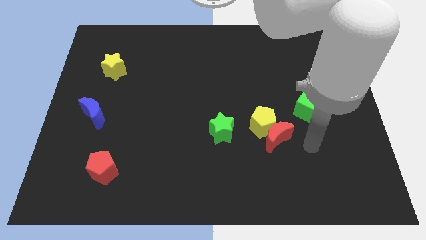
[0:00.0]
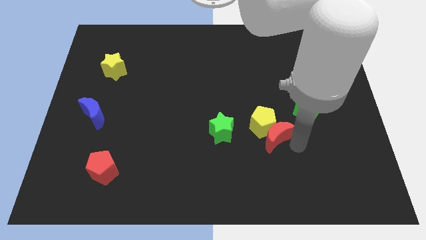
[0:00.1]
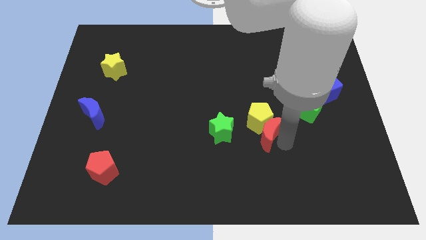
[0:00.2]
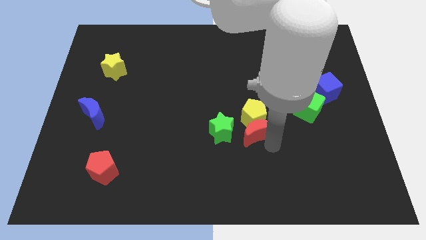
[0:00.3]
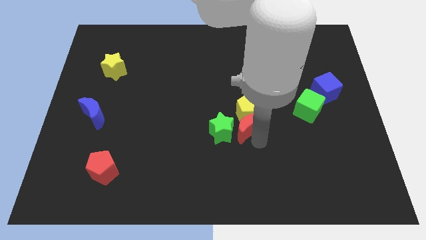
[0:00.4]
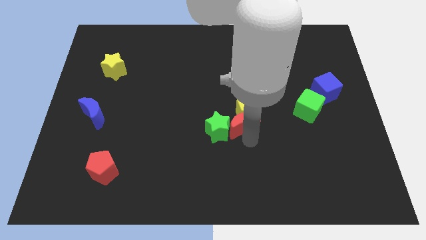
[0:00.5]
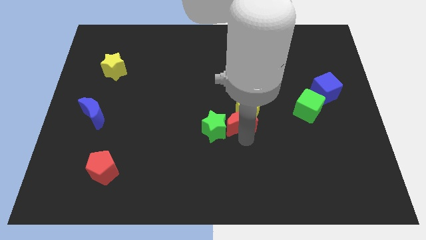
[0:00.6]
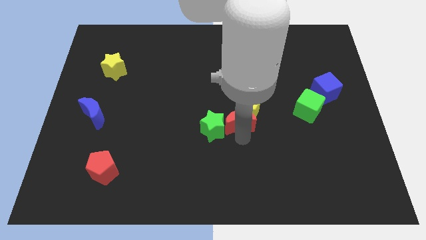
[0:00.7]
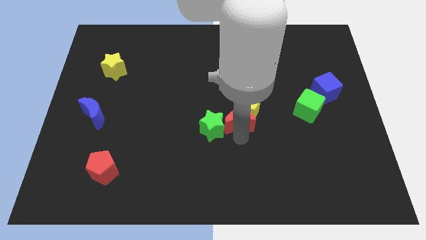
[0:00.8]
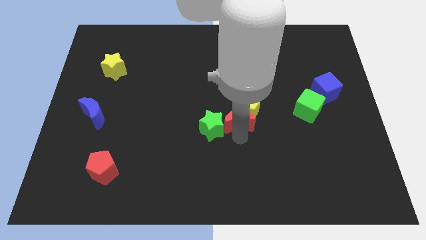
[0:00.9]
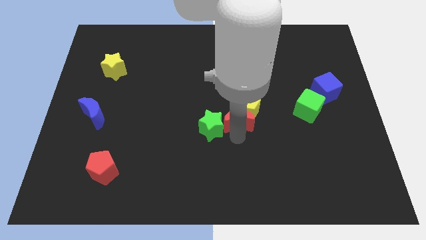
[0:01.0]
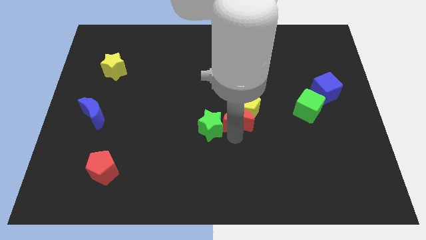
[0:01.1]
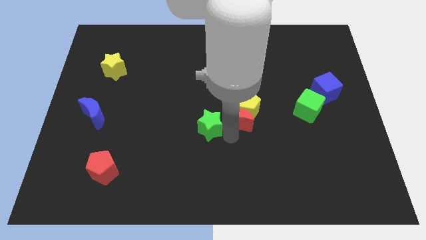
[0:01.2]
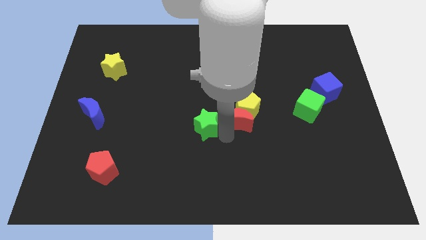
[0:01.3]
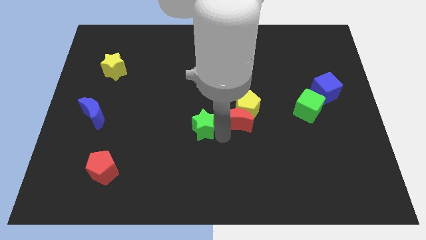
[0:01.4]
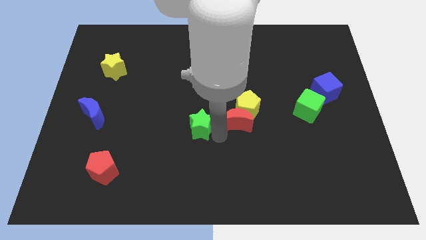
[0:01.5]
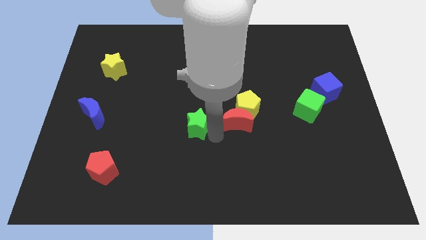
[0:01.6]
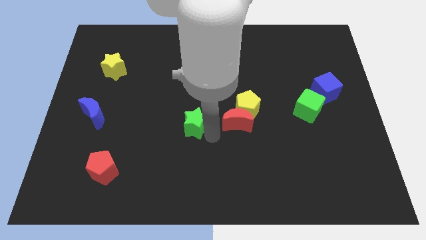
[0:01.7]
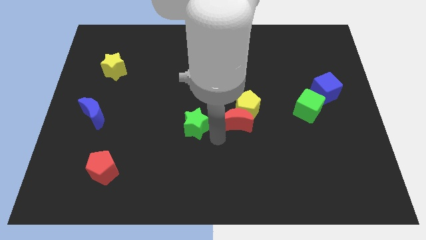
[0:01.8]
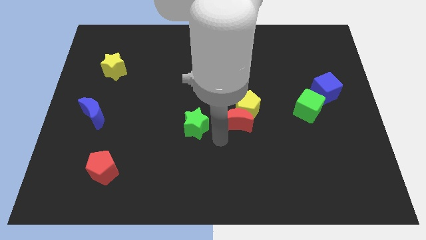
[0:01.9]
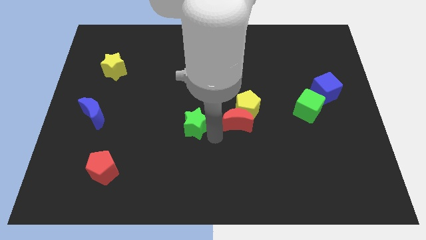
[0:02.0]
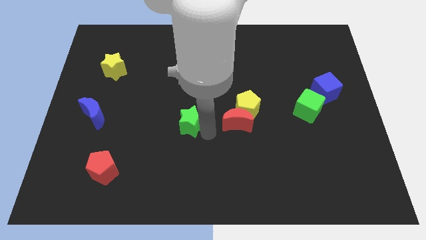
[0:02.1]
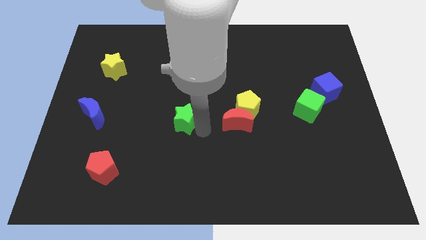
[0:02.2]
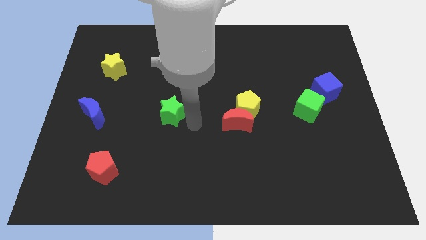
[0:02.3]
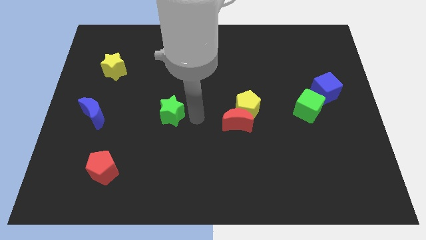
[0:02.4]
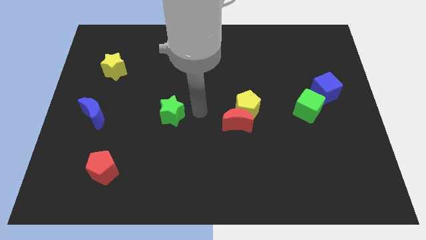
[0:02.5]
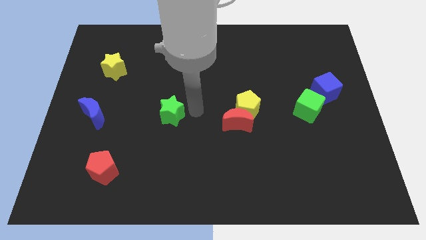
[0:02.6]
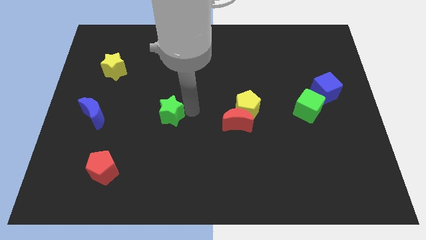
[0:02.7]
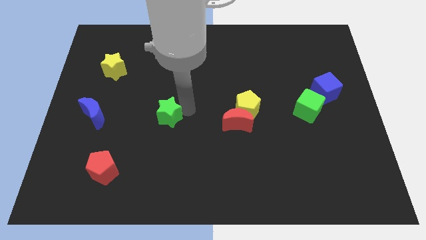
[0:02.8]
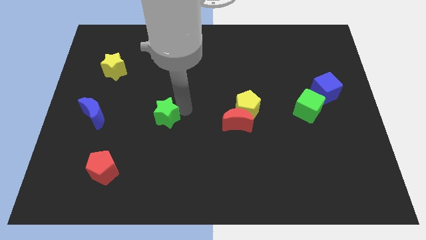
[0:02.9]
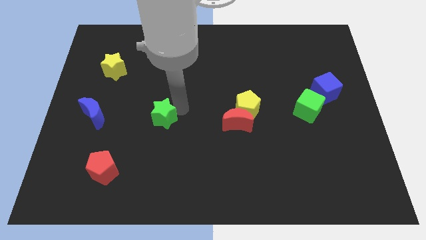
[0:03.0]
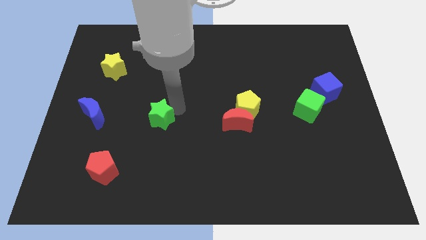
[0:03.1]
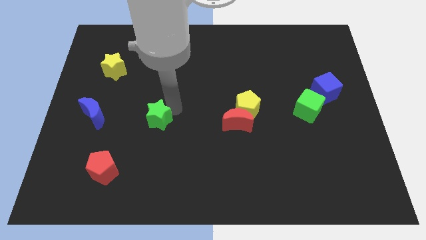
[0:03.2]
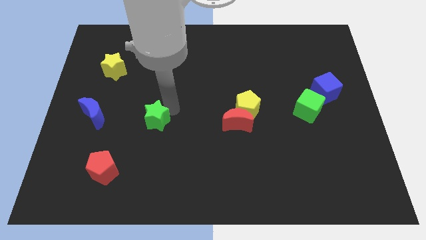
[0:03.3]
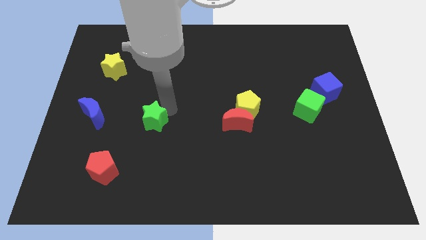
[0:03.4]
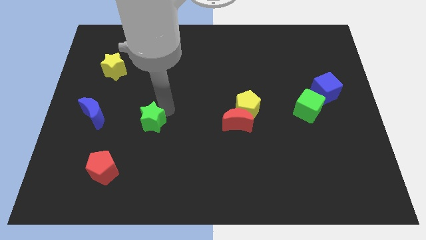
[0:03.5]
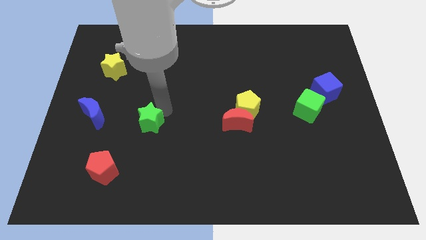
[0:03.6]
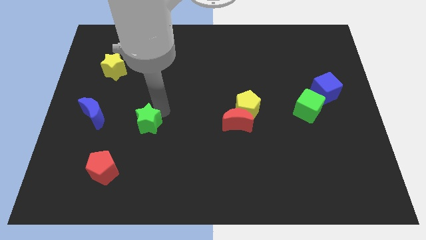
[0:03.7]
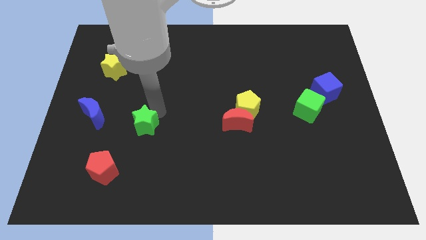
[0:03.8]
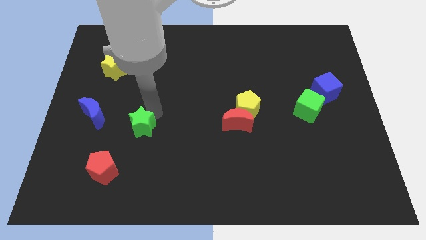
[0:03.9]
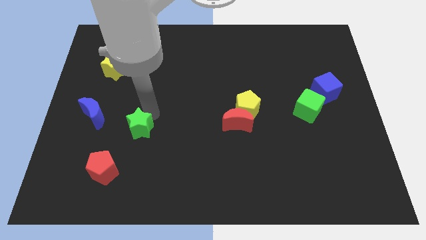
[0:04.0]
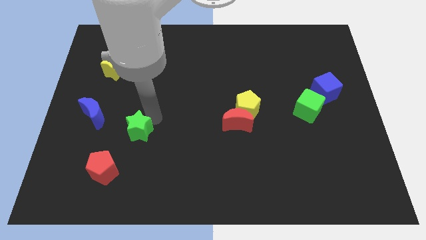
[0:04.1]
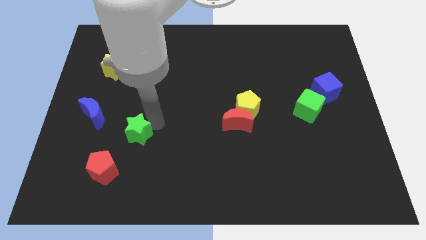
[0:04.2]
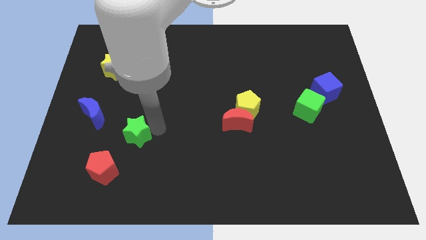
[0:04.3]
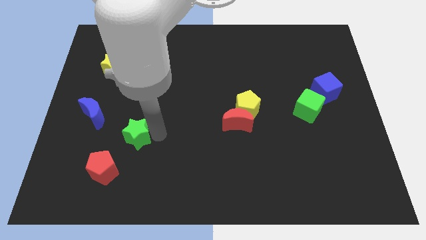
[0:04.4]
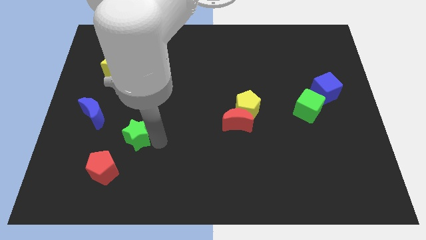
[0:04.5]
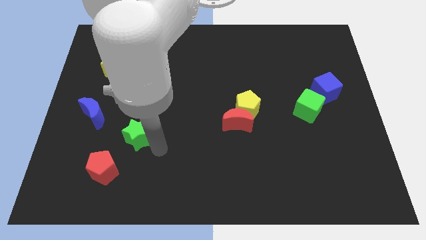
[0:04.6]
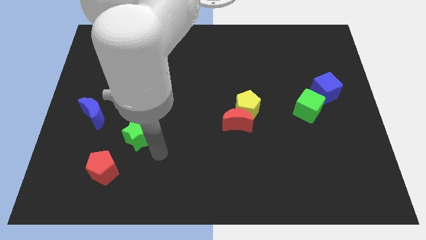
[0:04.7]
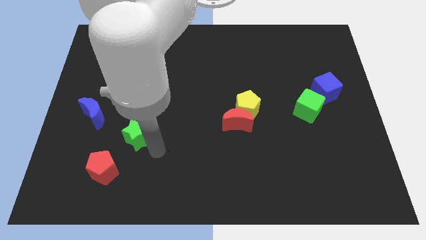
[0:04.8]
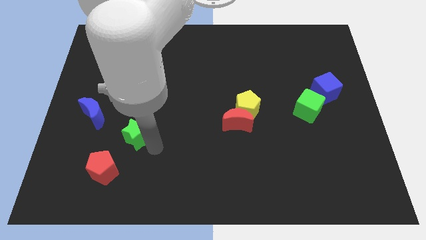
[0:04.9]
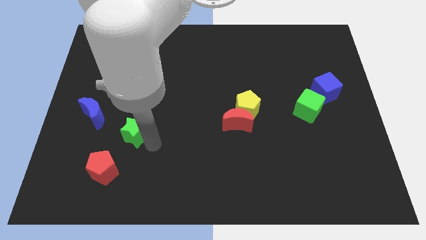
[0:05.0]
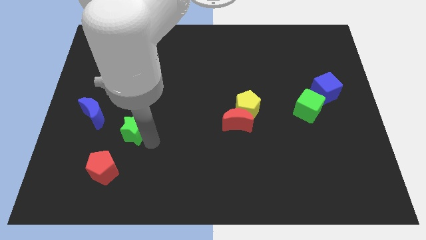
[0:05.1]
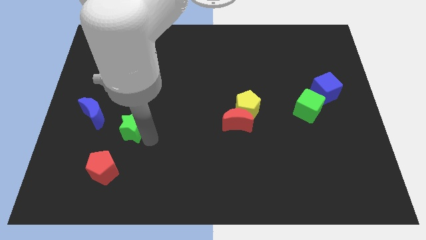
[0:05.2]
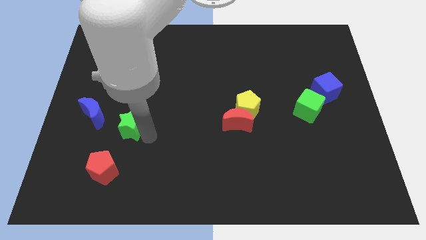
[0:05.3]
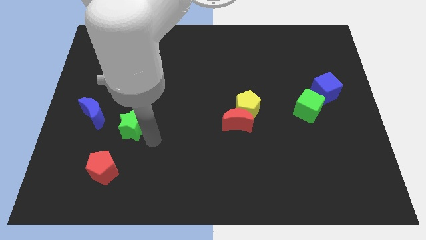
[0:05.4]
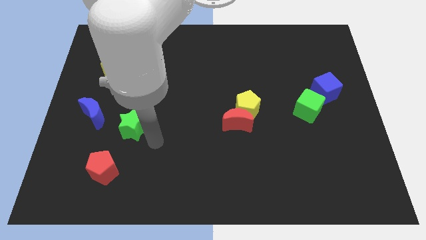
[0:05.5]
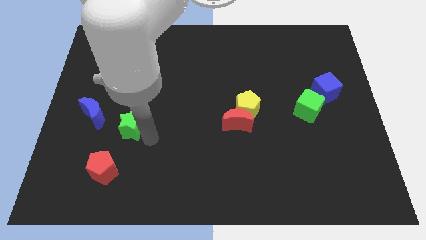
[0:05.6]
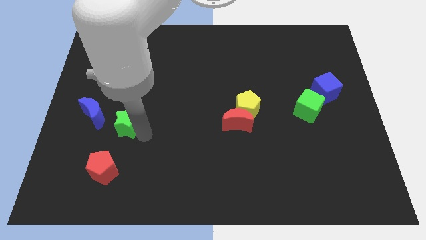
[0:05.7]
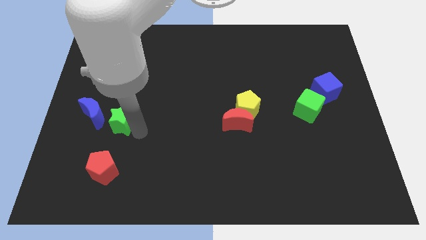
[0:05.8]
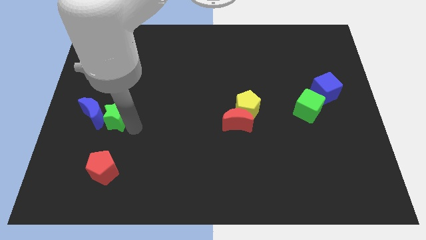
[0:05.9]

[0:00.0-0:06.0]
put the green star to the blue moon
